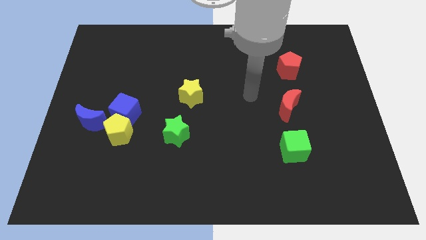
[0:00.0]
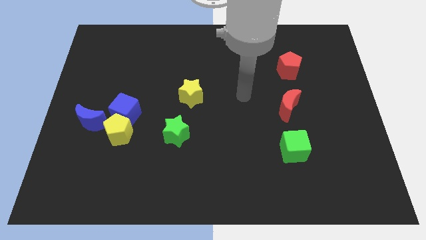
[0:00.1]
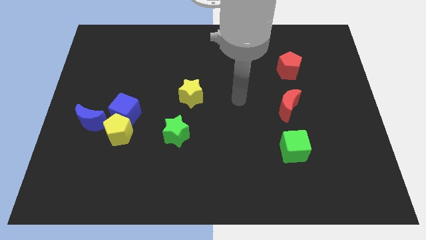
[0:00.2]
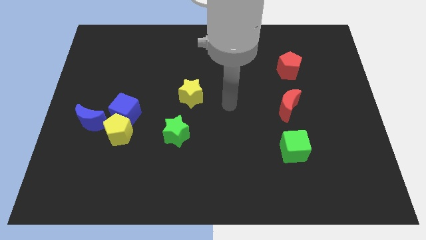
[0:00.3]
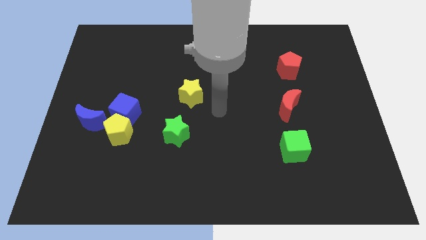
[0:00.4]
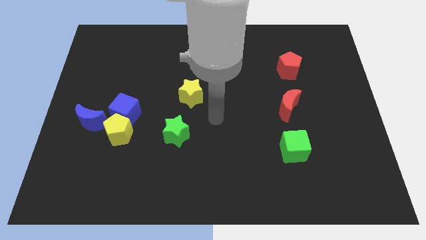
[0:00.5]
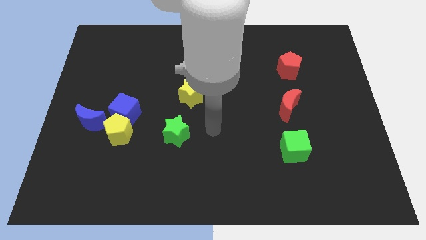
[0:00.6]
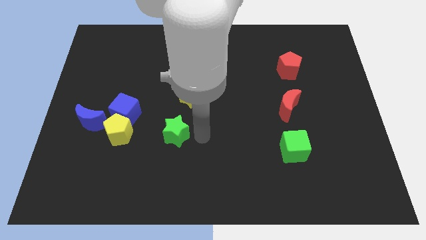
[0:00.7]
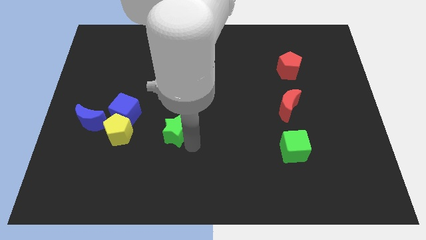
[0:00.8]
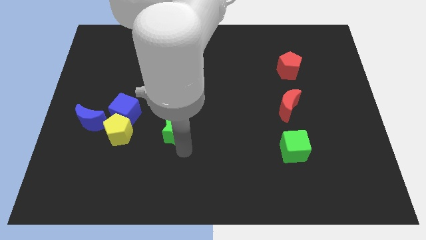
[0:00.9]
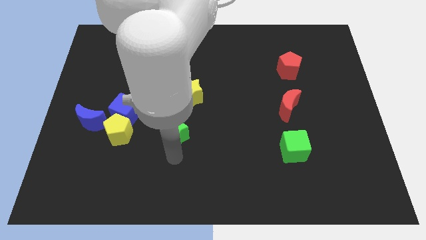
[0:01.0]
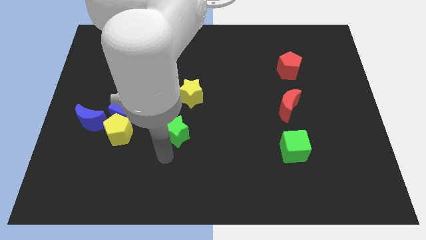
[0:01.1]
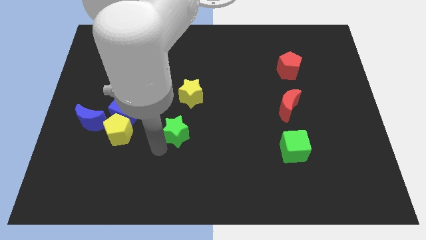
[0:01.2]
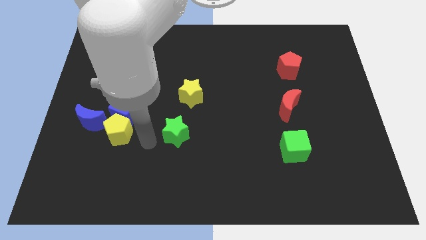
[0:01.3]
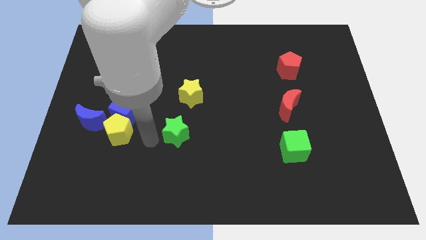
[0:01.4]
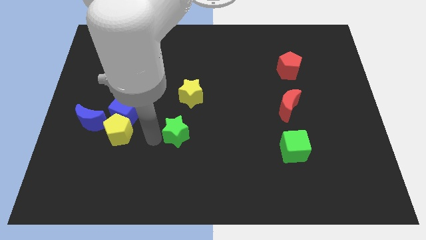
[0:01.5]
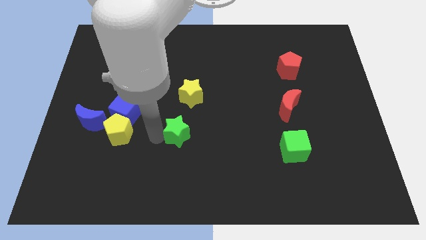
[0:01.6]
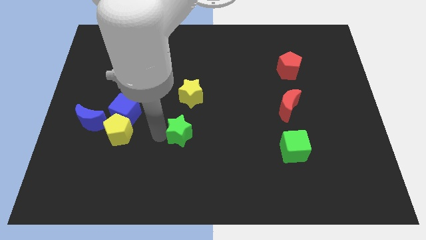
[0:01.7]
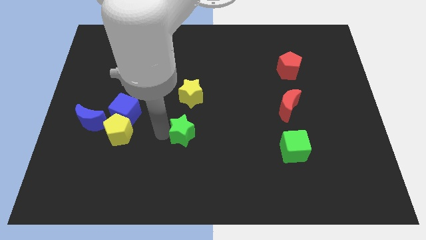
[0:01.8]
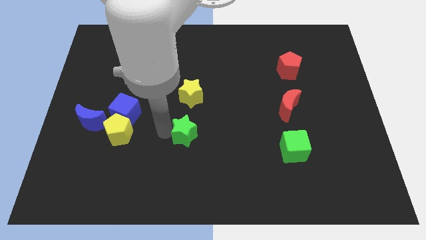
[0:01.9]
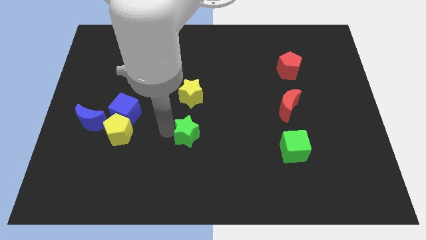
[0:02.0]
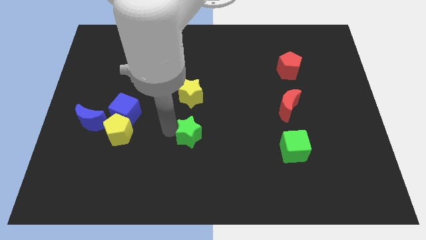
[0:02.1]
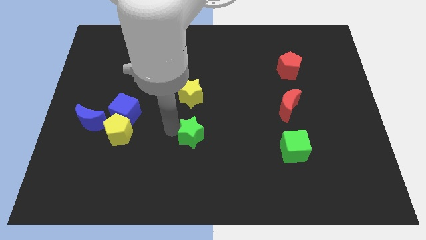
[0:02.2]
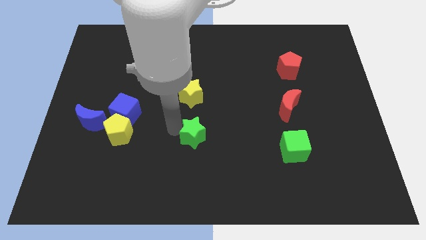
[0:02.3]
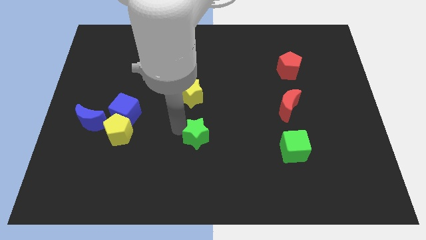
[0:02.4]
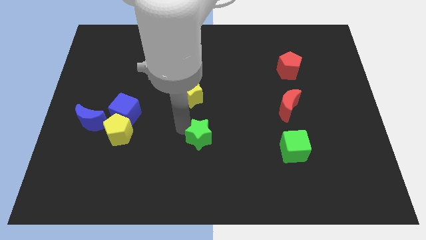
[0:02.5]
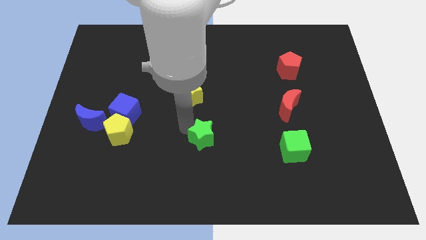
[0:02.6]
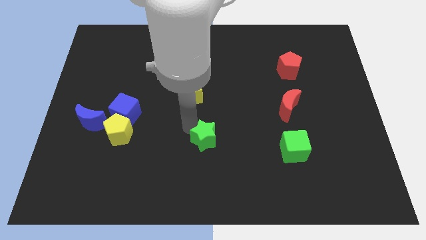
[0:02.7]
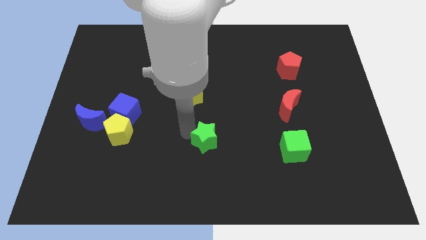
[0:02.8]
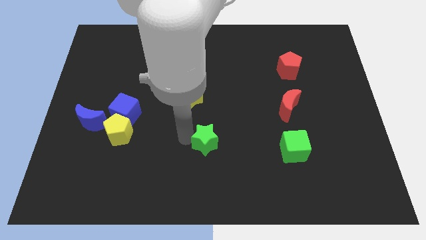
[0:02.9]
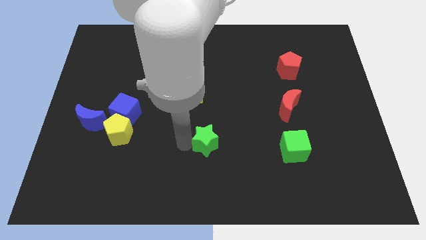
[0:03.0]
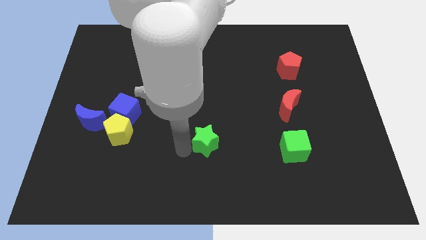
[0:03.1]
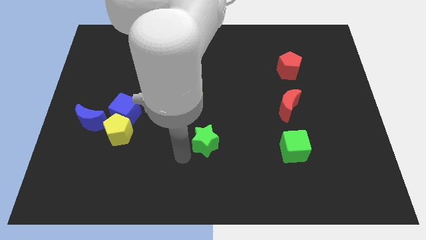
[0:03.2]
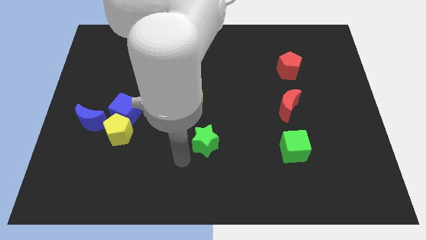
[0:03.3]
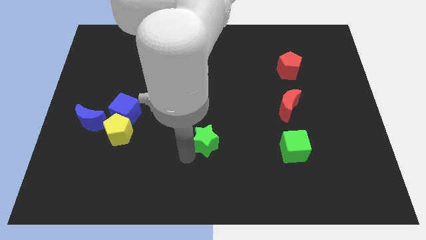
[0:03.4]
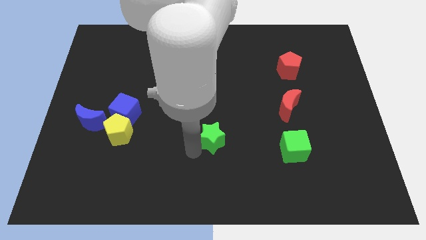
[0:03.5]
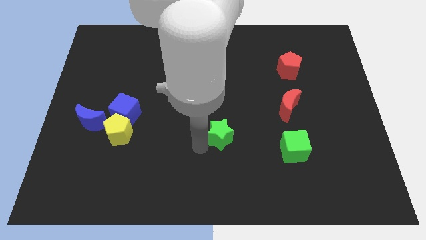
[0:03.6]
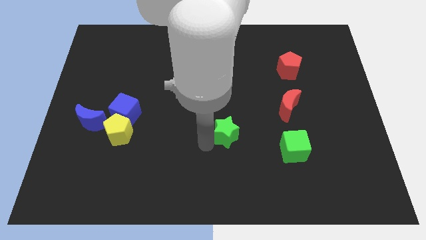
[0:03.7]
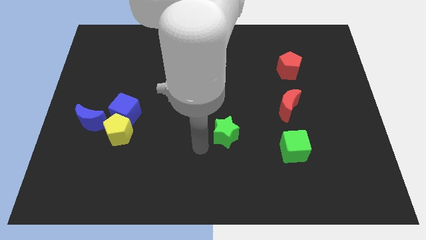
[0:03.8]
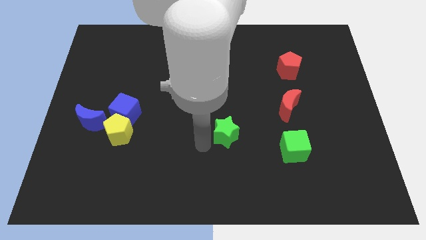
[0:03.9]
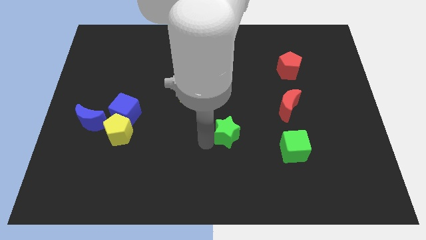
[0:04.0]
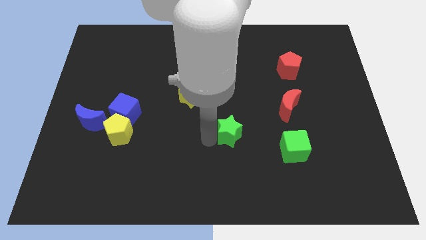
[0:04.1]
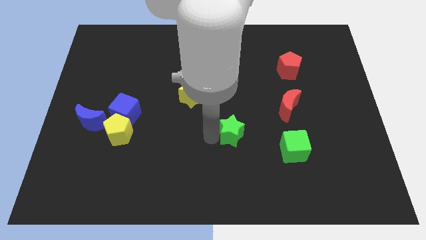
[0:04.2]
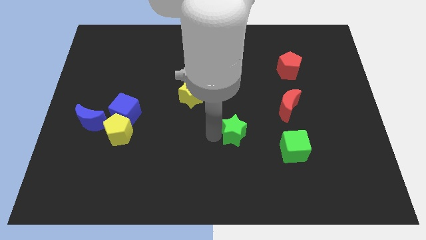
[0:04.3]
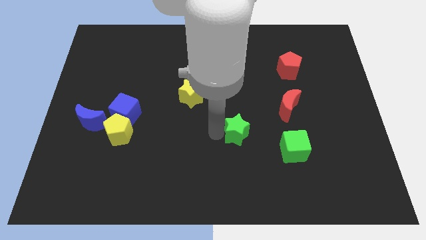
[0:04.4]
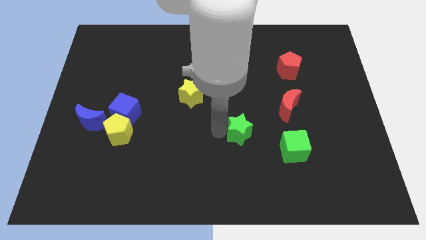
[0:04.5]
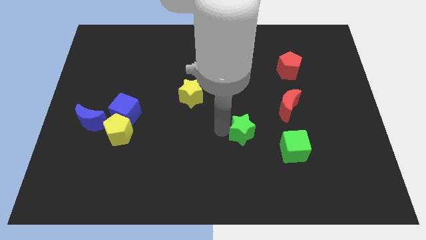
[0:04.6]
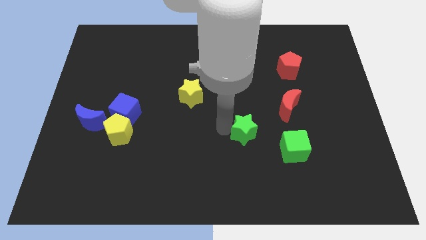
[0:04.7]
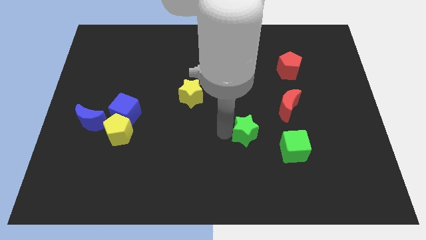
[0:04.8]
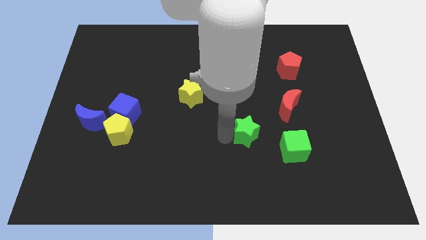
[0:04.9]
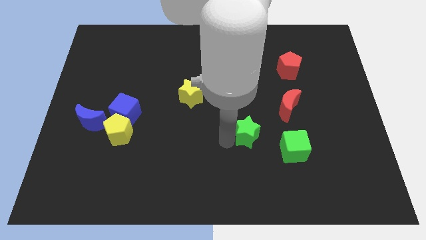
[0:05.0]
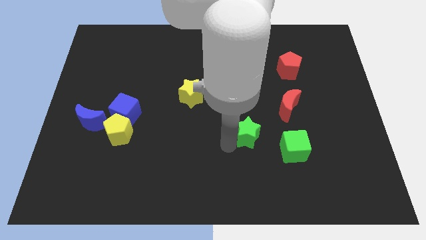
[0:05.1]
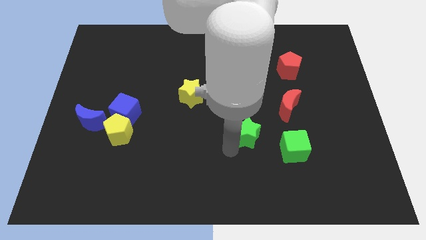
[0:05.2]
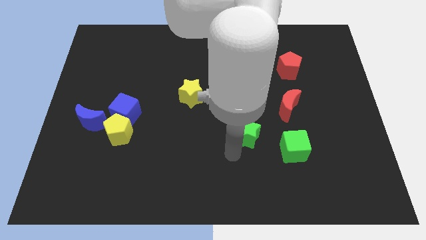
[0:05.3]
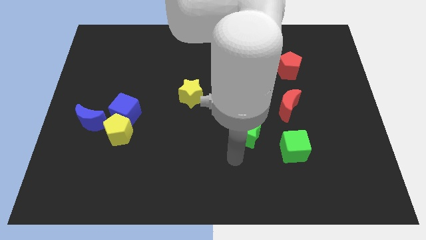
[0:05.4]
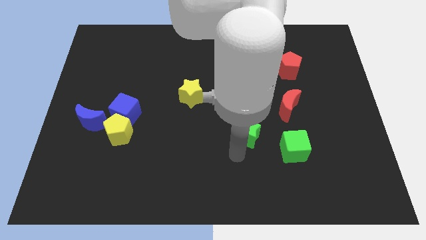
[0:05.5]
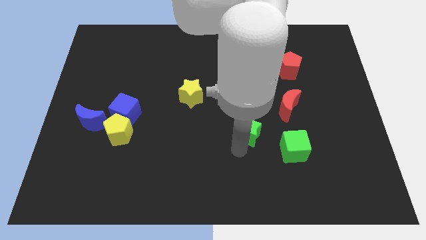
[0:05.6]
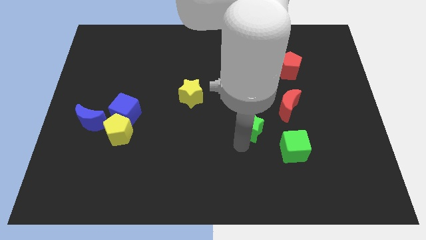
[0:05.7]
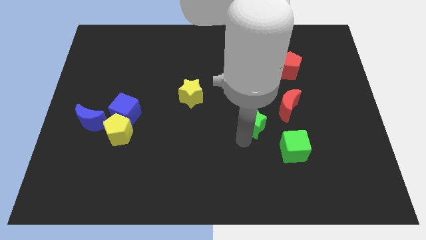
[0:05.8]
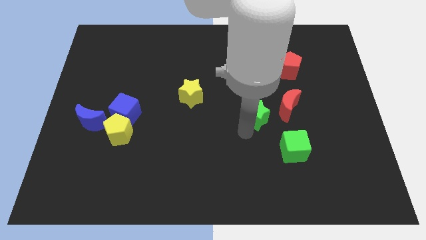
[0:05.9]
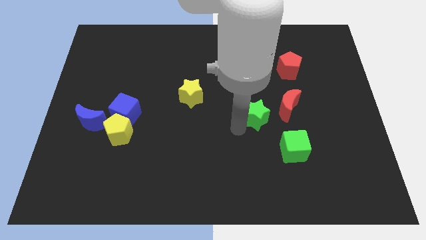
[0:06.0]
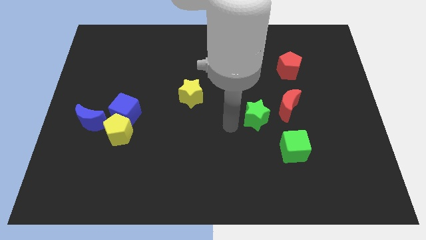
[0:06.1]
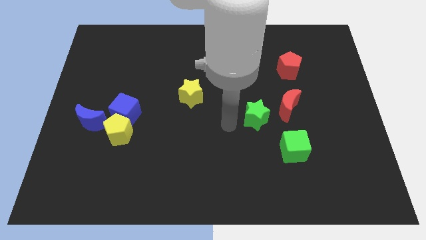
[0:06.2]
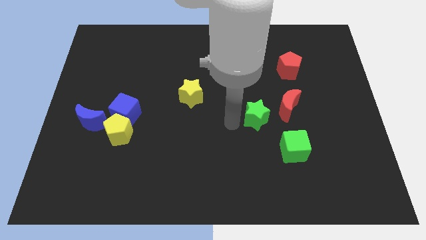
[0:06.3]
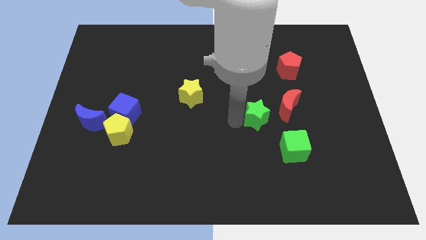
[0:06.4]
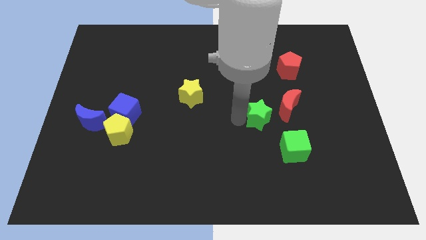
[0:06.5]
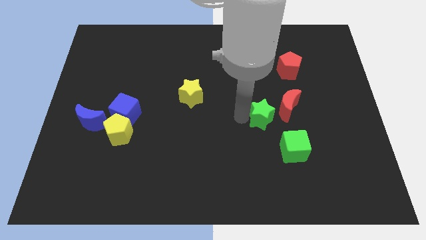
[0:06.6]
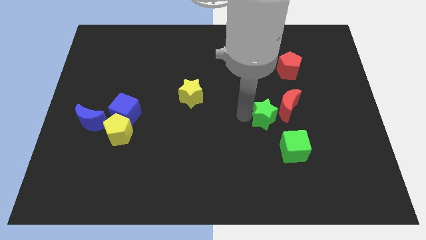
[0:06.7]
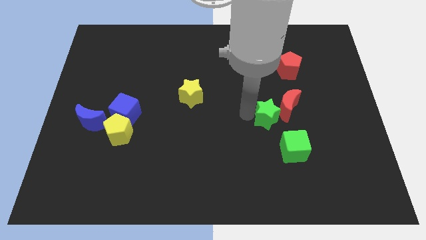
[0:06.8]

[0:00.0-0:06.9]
move the green star close to the red moon
